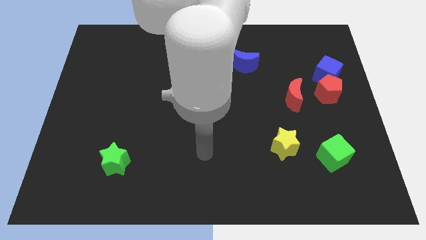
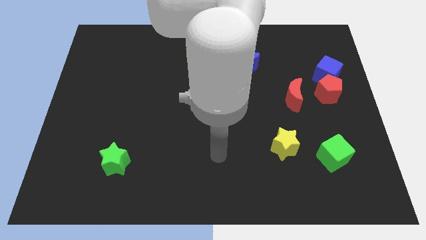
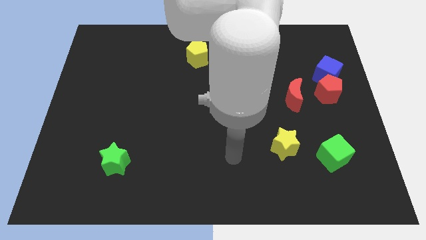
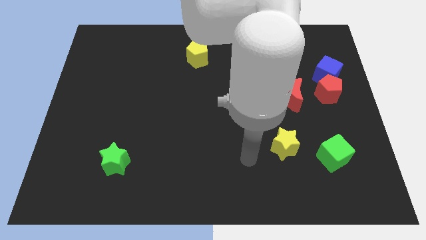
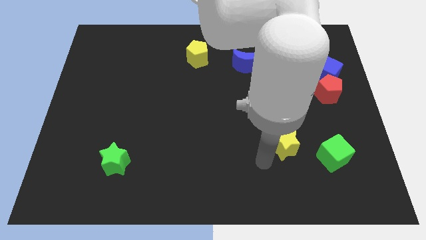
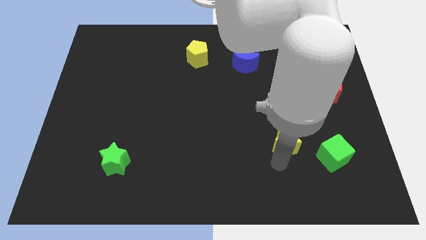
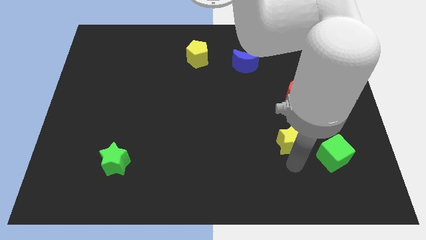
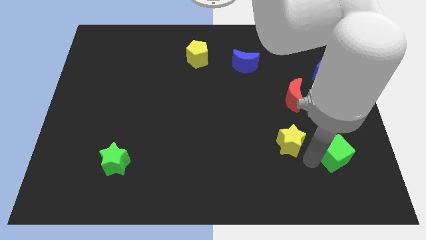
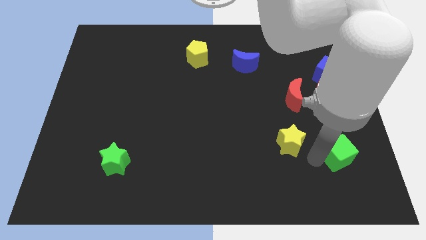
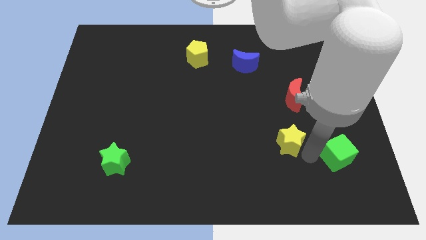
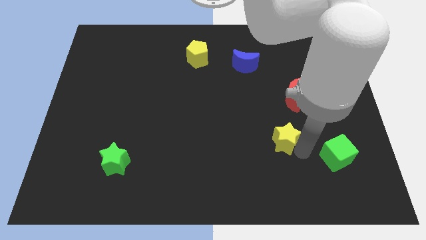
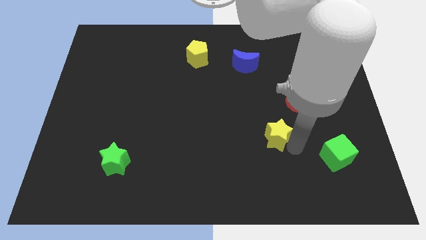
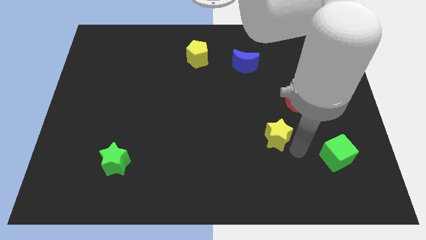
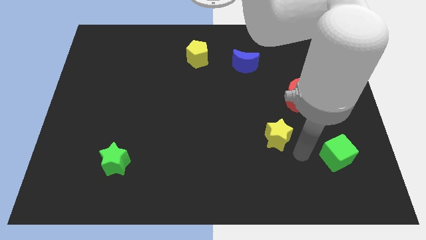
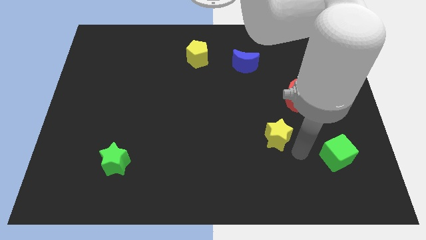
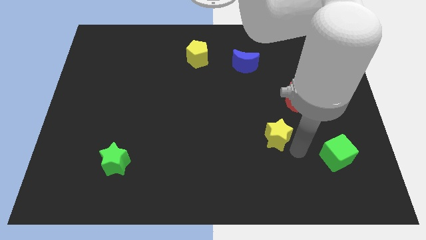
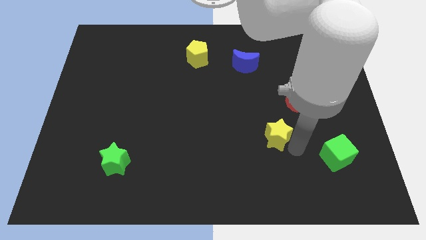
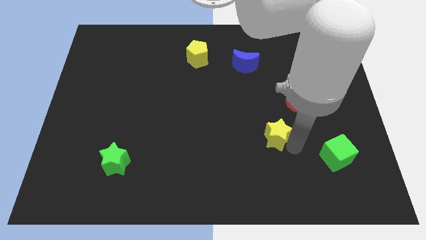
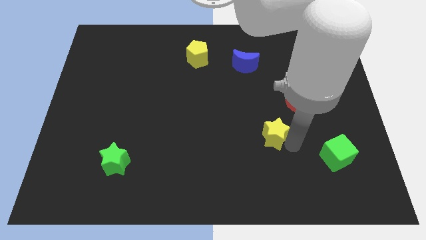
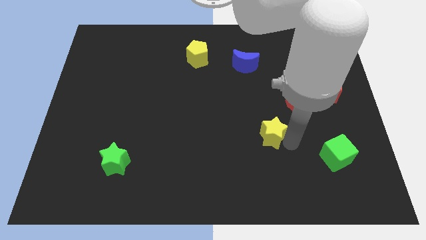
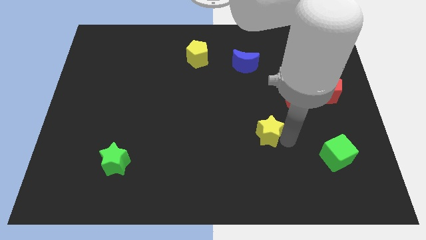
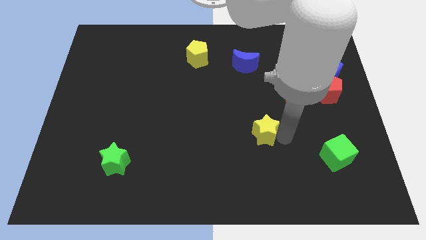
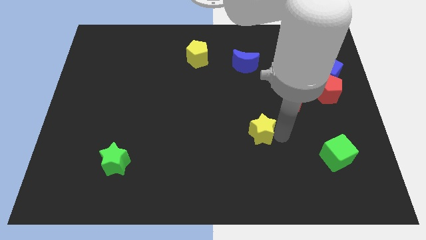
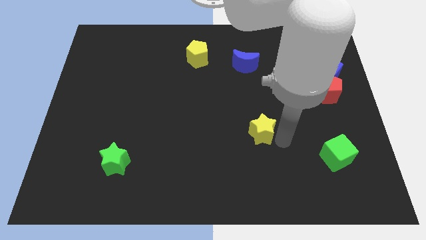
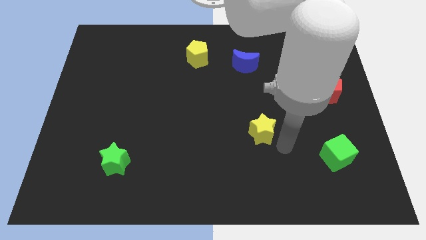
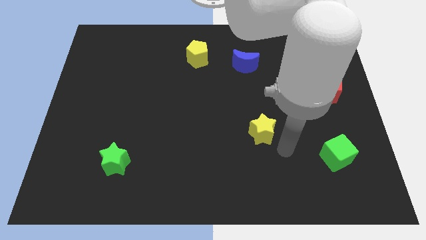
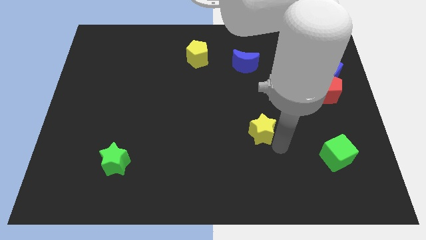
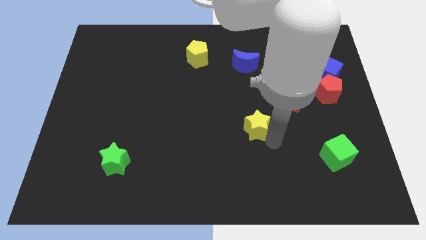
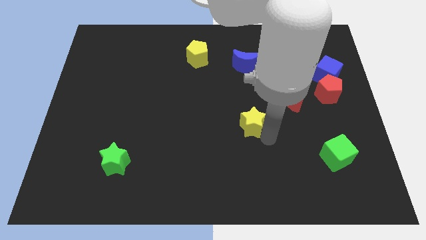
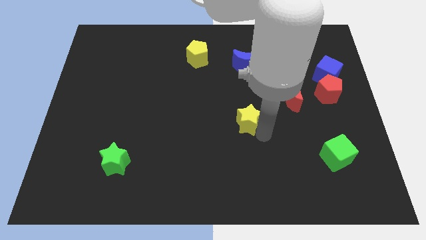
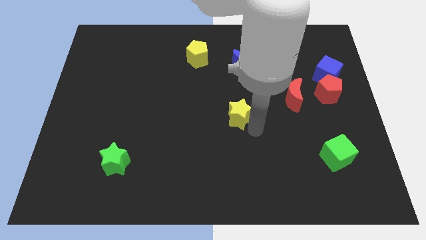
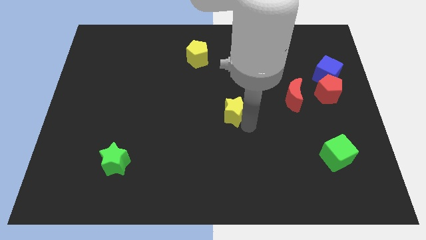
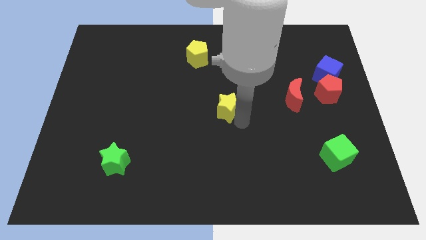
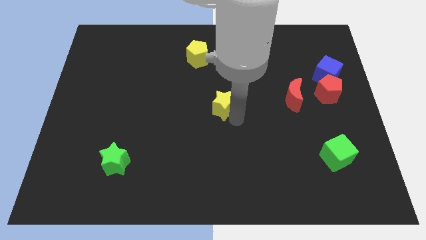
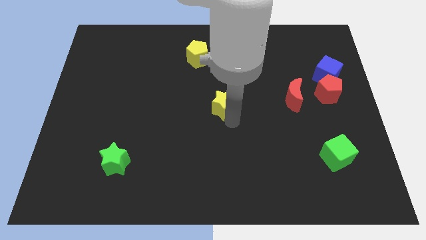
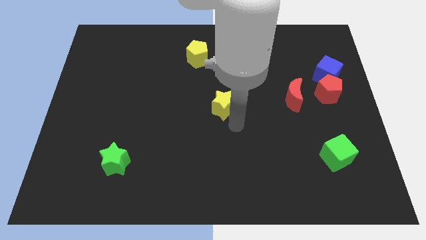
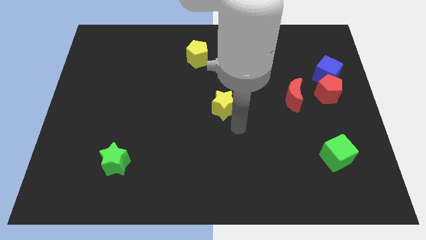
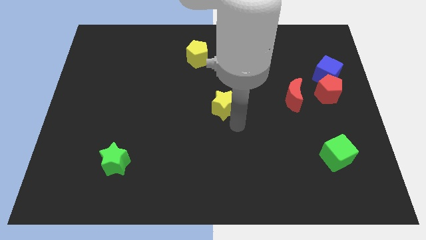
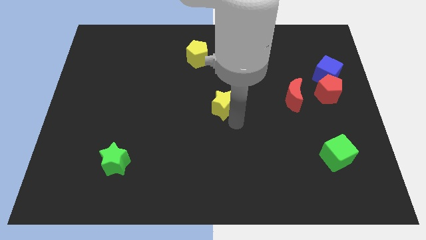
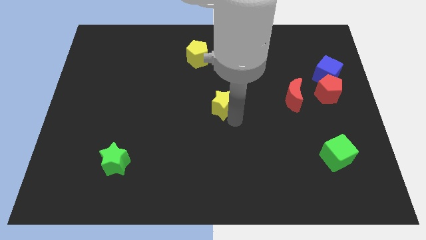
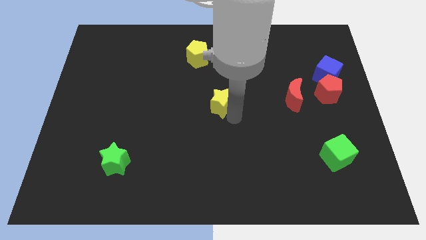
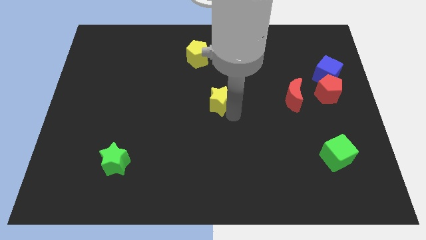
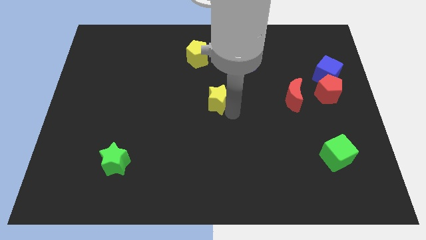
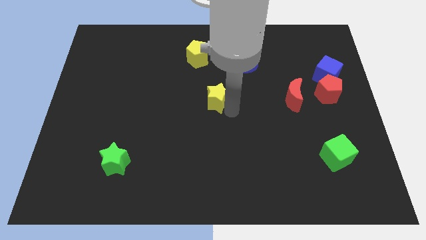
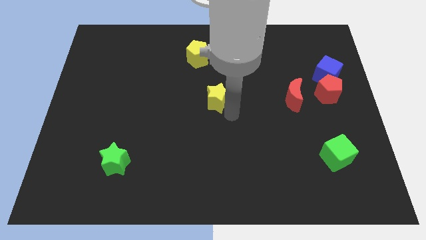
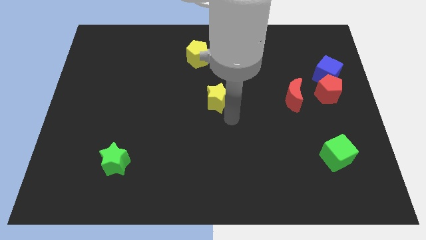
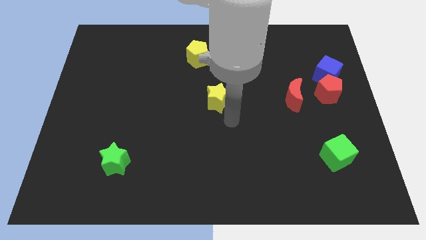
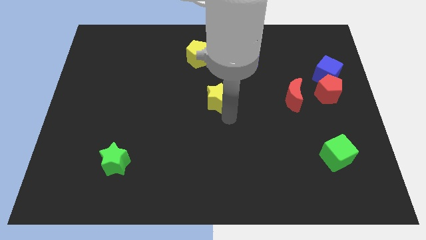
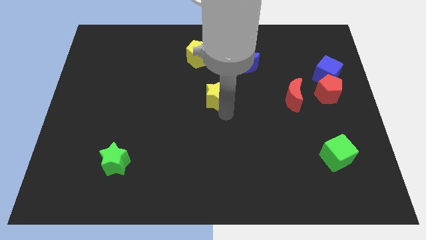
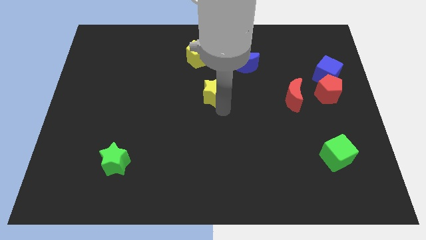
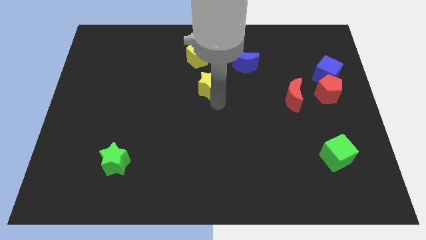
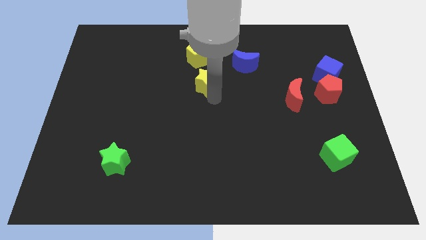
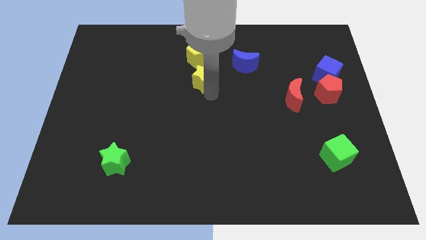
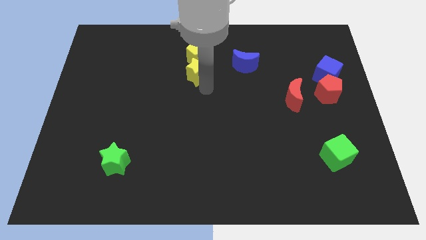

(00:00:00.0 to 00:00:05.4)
move the yellow star close to the yellow pentagon

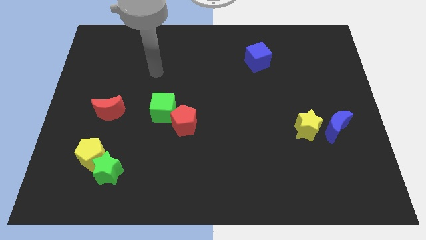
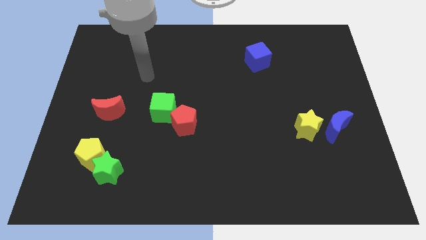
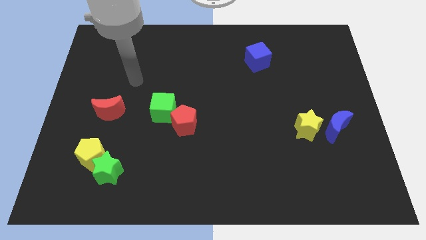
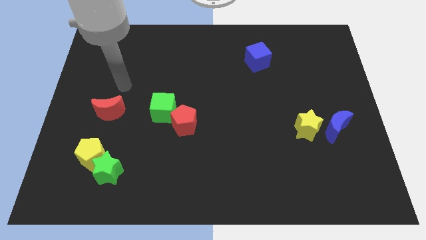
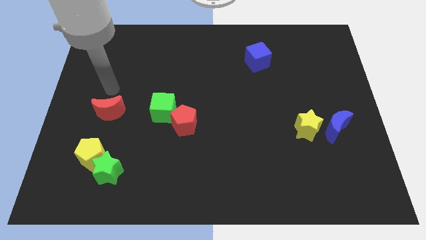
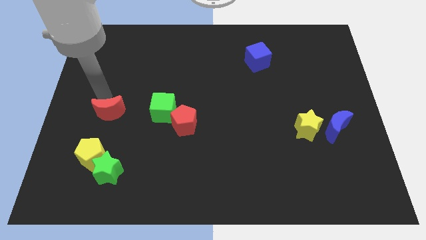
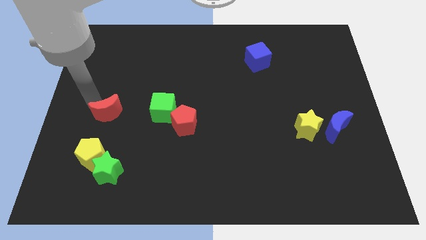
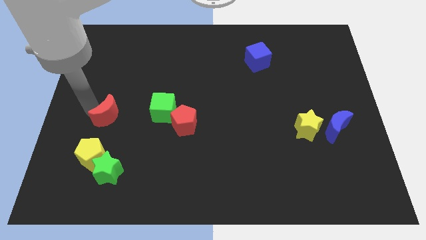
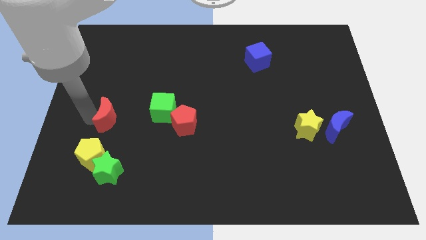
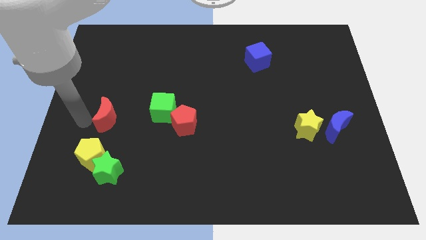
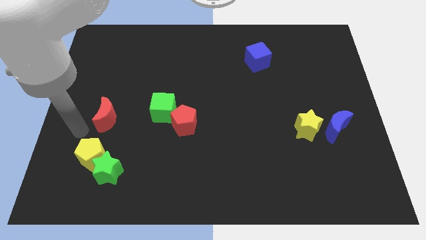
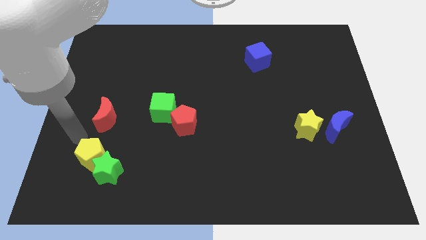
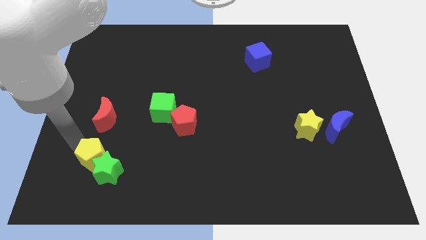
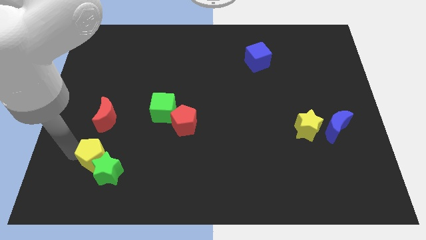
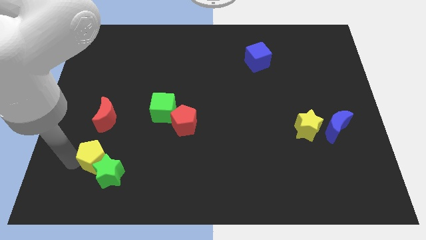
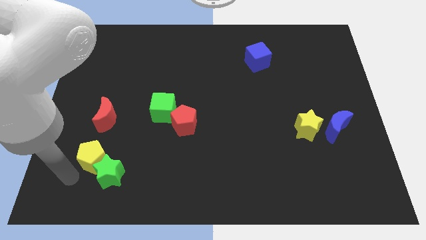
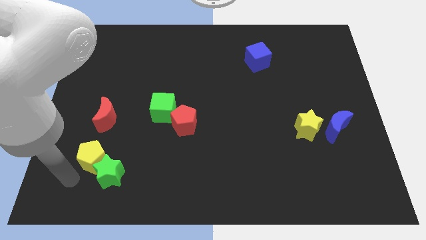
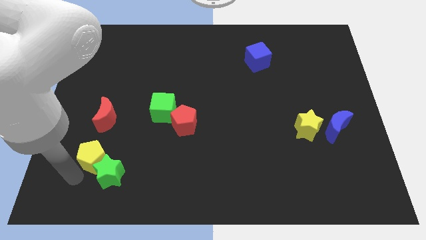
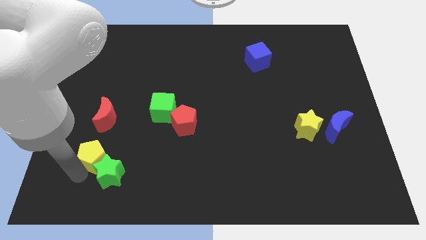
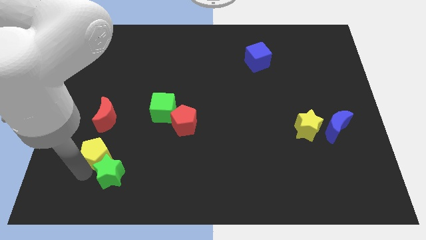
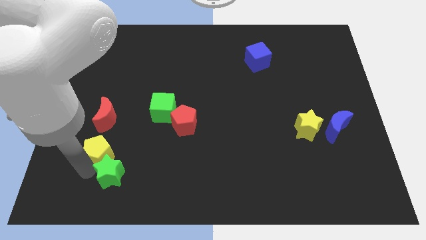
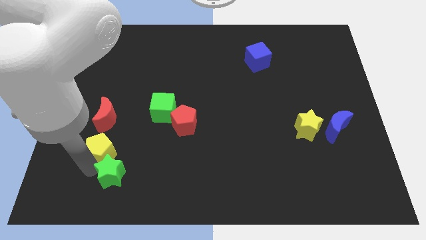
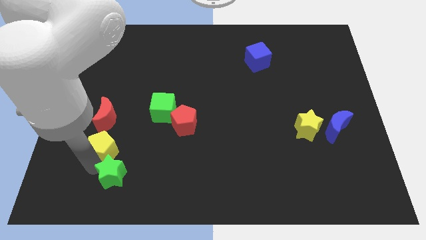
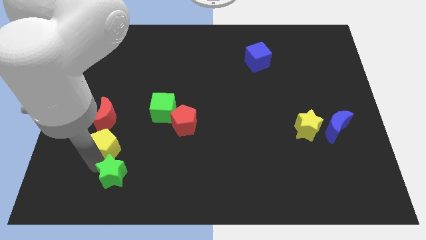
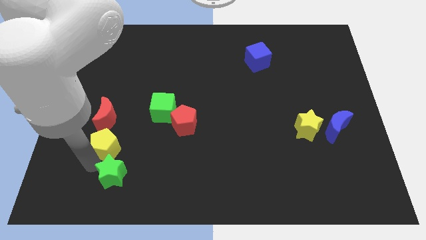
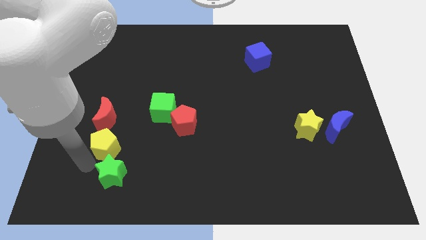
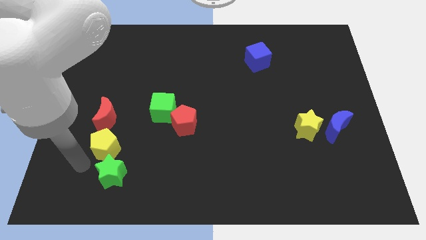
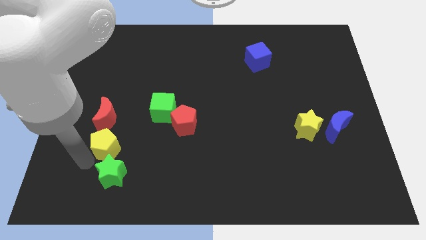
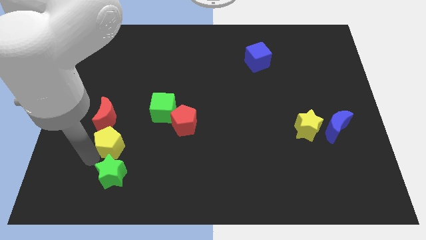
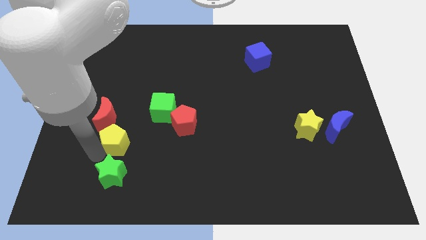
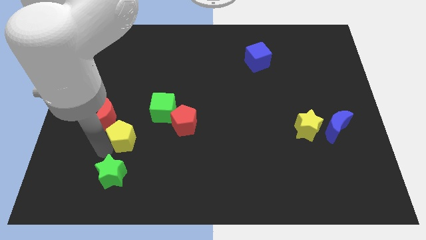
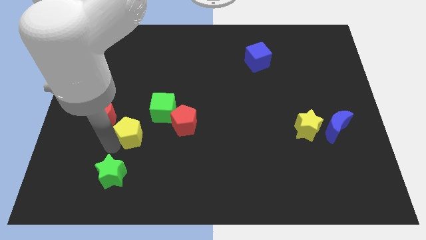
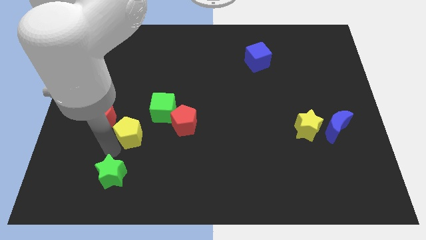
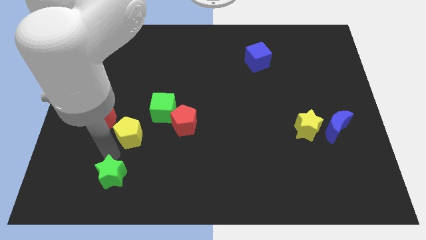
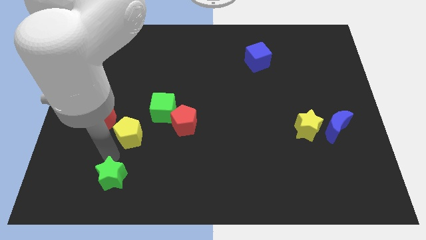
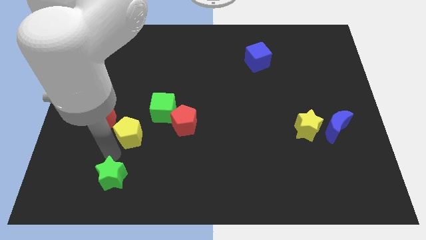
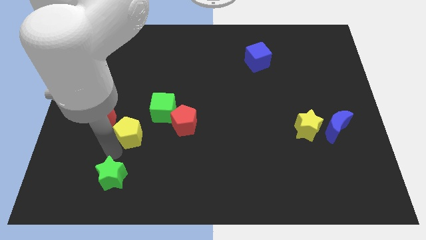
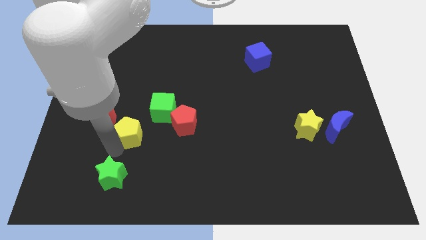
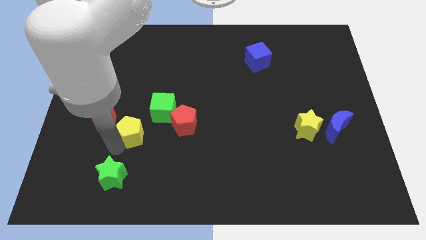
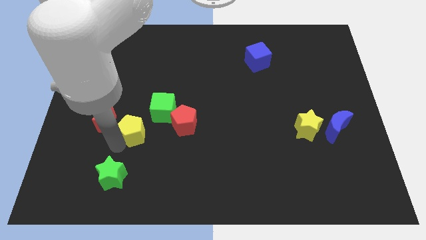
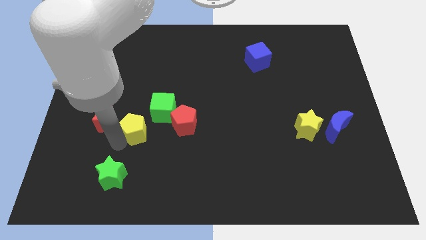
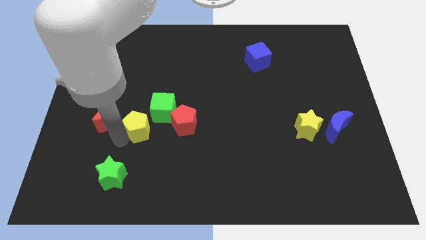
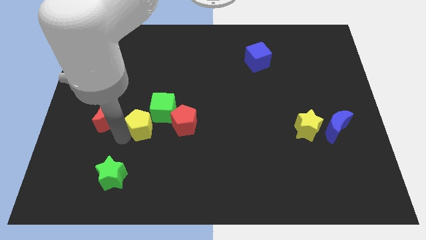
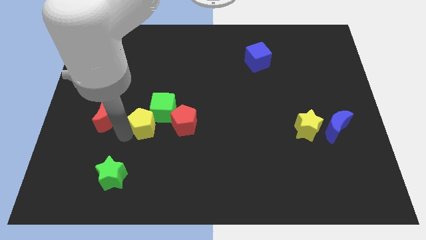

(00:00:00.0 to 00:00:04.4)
slide the yellow pentagon next to the green cube
